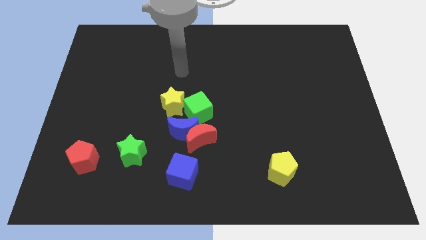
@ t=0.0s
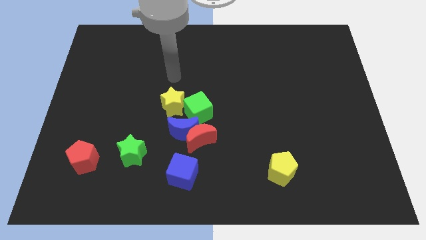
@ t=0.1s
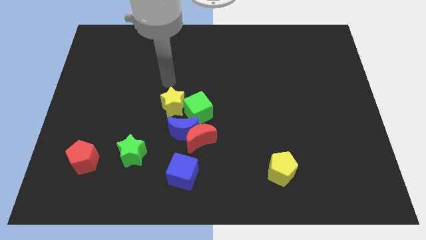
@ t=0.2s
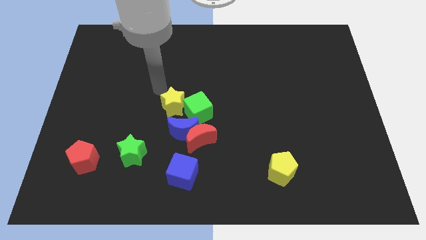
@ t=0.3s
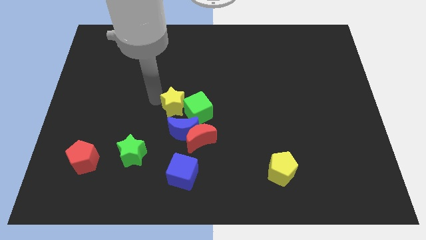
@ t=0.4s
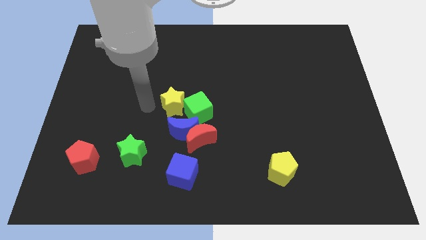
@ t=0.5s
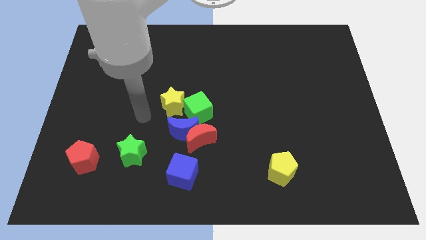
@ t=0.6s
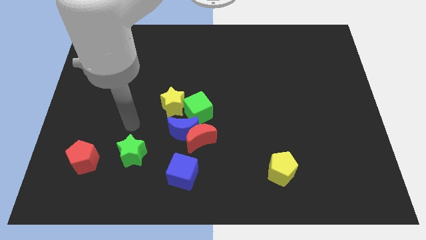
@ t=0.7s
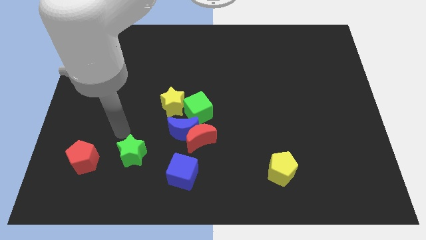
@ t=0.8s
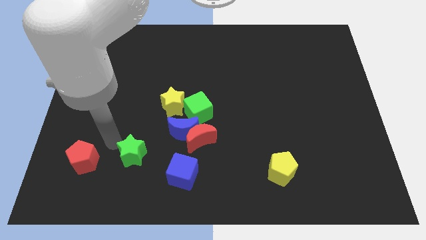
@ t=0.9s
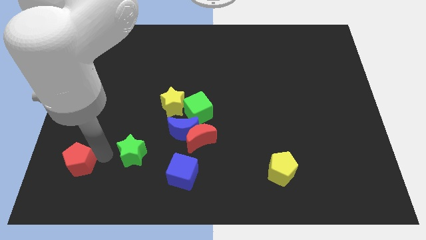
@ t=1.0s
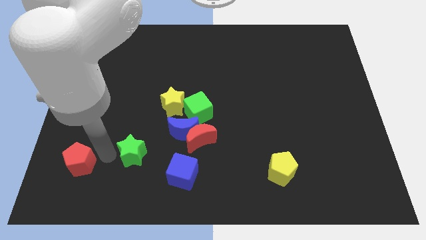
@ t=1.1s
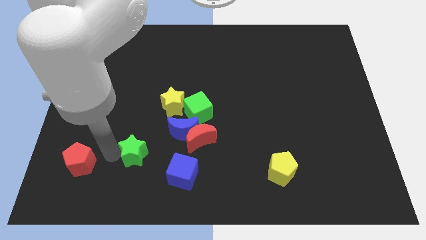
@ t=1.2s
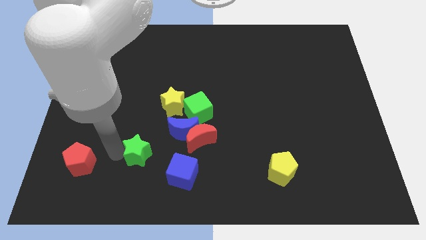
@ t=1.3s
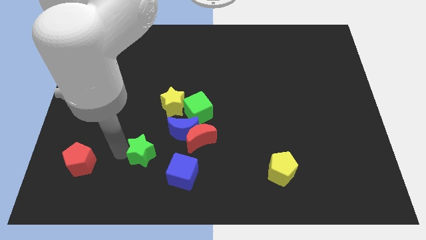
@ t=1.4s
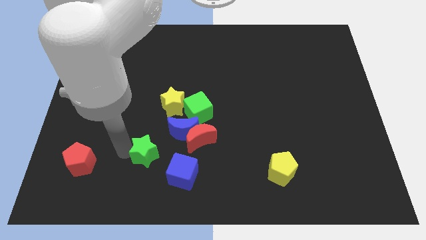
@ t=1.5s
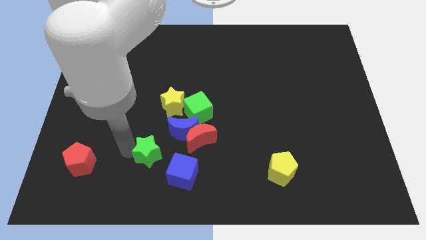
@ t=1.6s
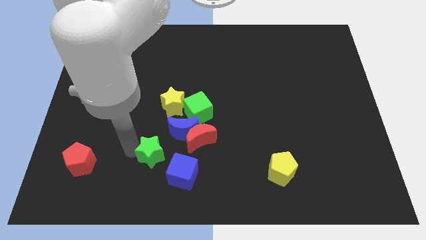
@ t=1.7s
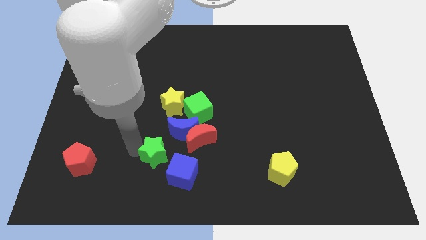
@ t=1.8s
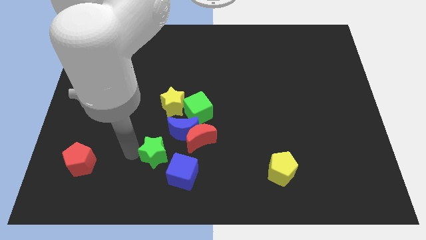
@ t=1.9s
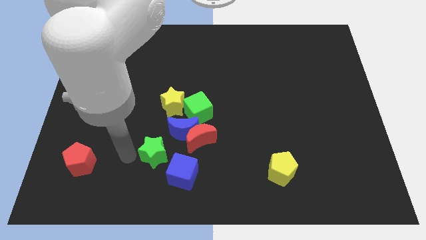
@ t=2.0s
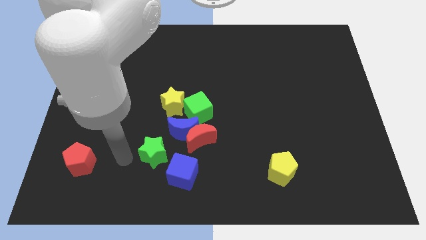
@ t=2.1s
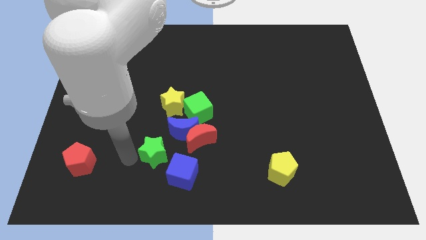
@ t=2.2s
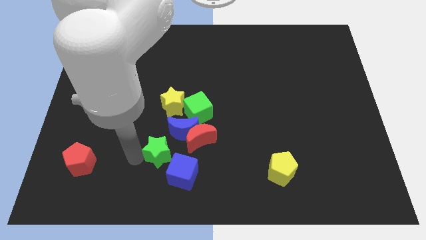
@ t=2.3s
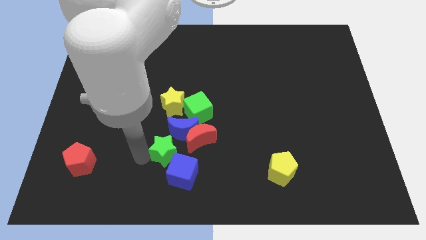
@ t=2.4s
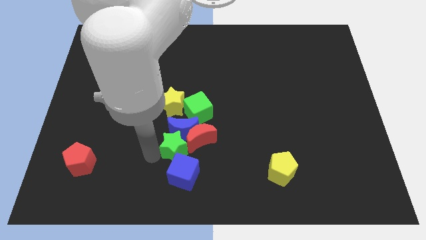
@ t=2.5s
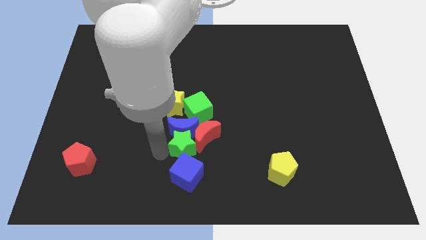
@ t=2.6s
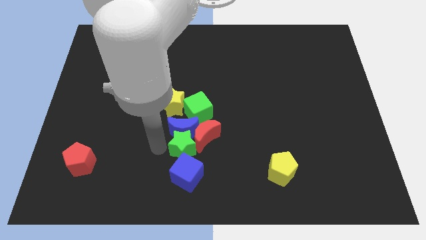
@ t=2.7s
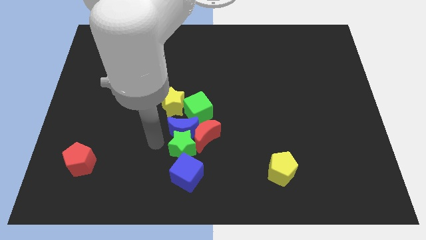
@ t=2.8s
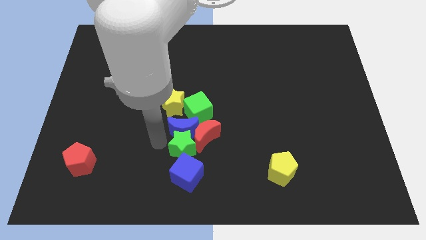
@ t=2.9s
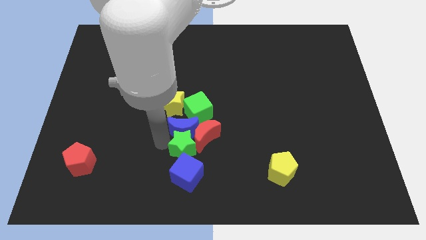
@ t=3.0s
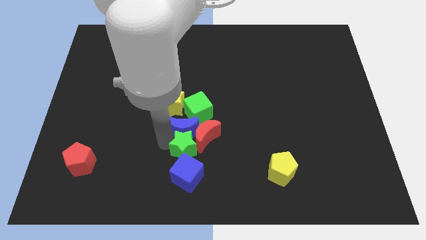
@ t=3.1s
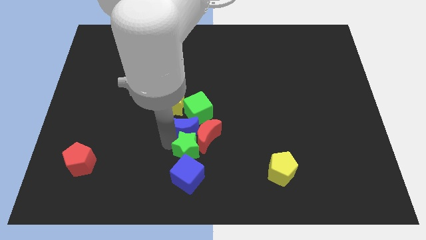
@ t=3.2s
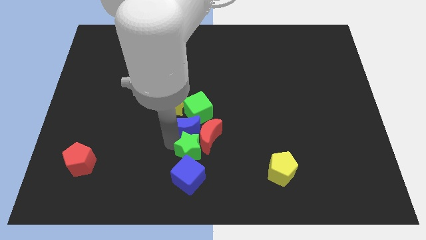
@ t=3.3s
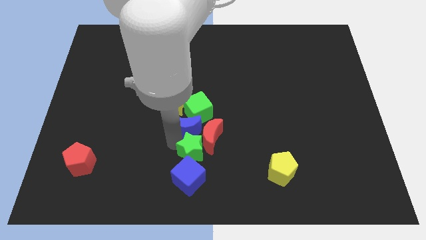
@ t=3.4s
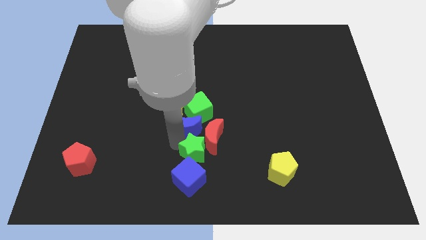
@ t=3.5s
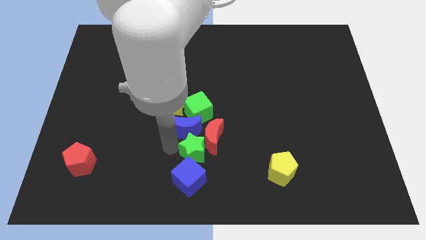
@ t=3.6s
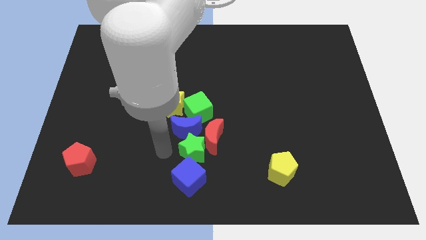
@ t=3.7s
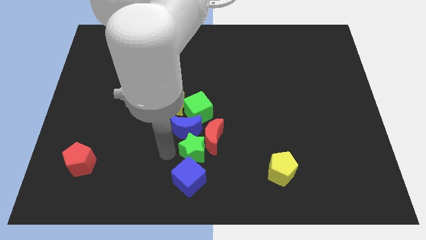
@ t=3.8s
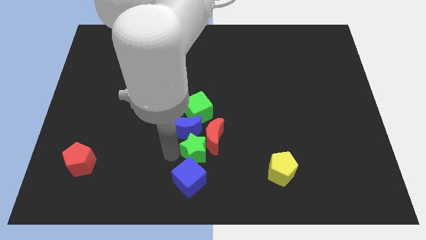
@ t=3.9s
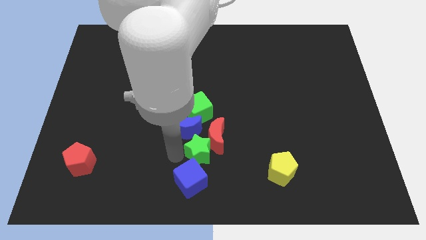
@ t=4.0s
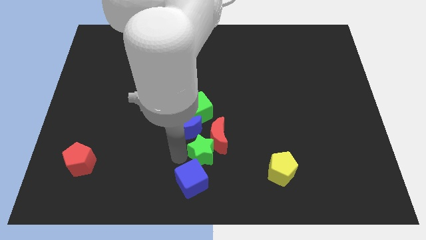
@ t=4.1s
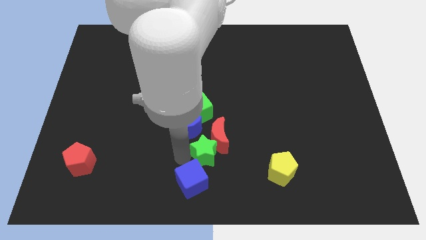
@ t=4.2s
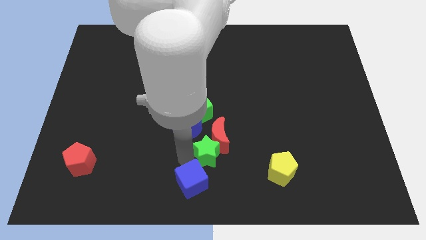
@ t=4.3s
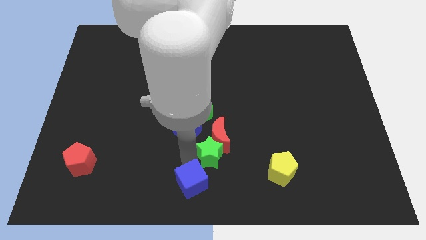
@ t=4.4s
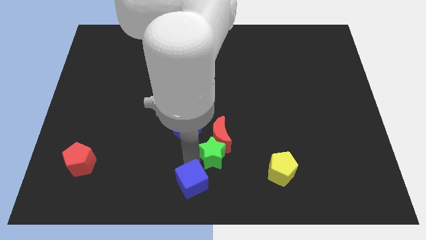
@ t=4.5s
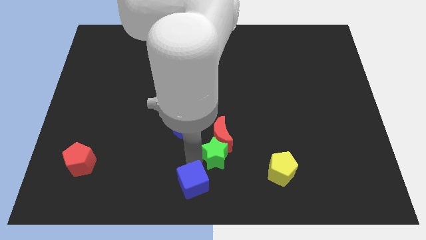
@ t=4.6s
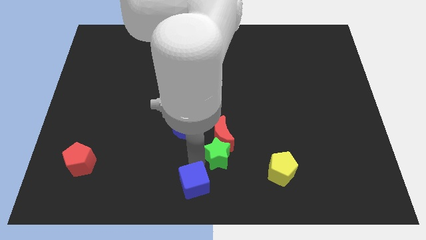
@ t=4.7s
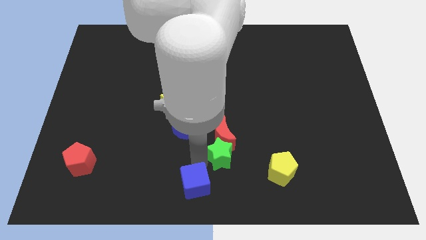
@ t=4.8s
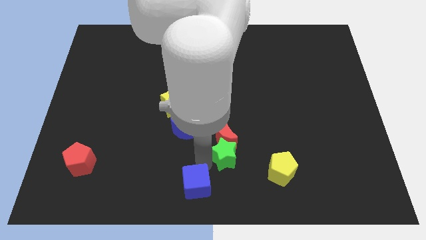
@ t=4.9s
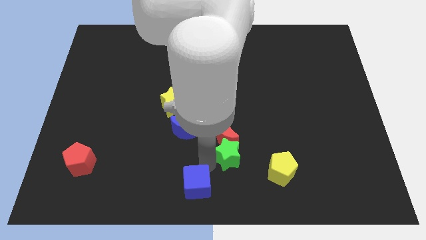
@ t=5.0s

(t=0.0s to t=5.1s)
move the green star to the right

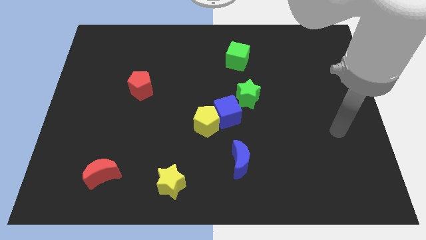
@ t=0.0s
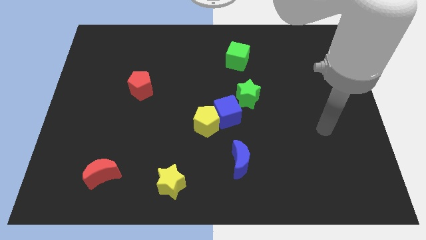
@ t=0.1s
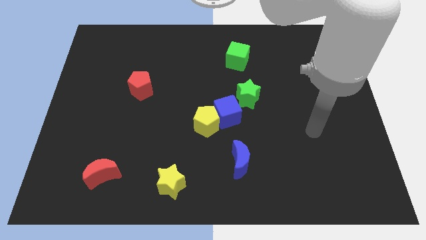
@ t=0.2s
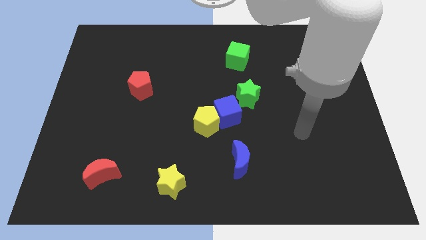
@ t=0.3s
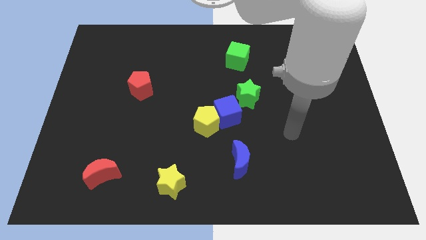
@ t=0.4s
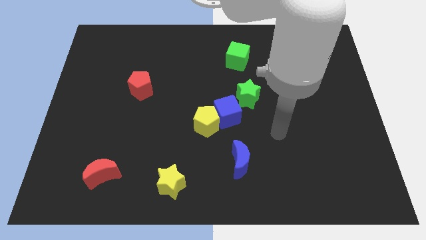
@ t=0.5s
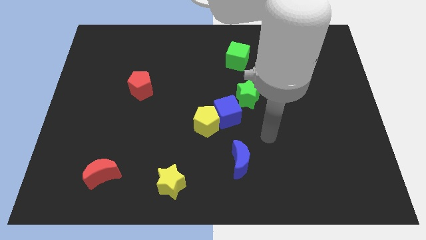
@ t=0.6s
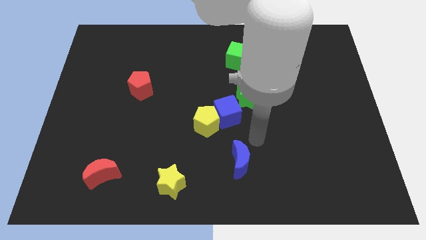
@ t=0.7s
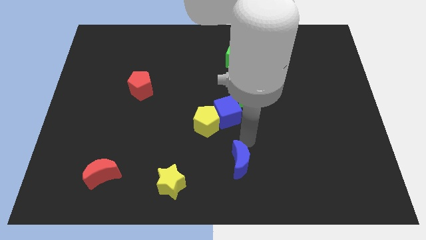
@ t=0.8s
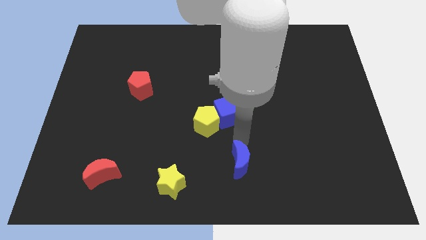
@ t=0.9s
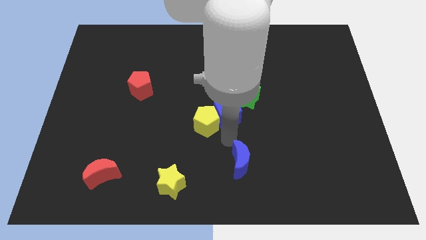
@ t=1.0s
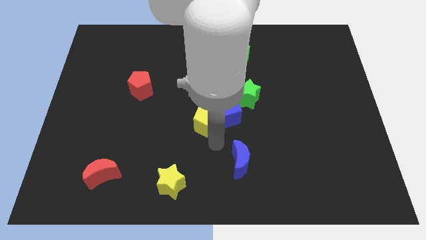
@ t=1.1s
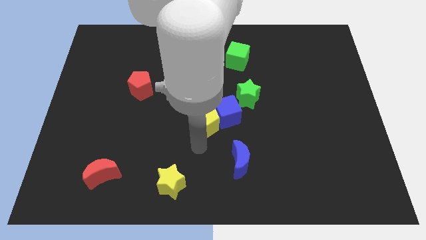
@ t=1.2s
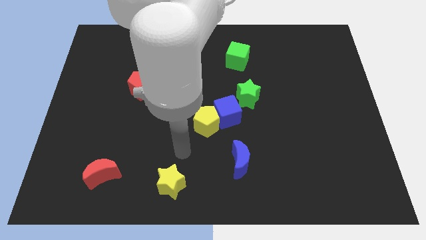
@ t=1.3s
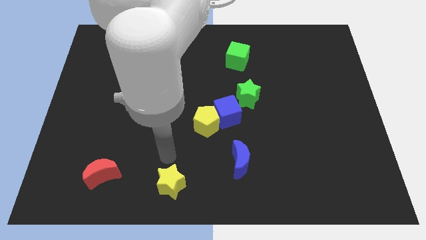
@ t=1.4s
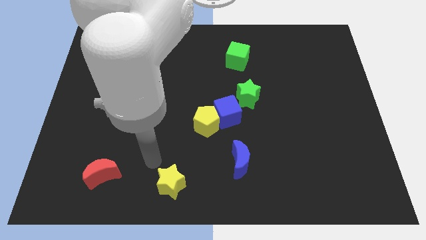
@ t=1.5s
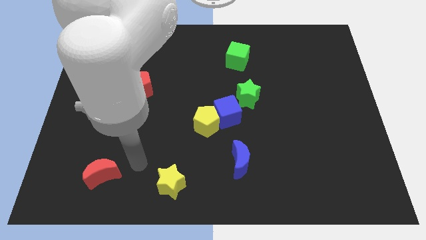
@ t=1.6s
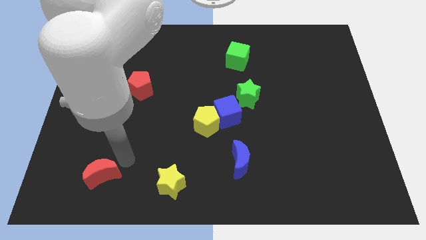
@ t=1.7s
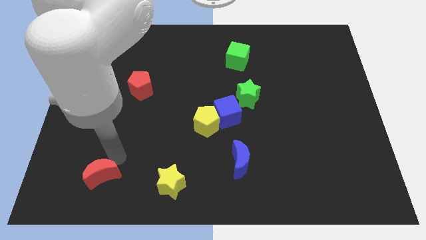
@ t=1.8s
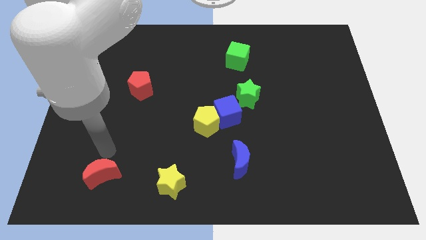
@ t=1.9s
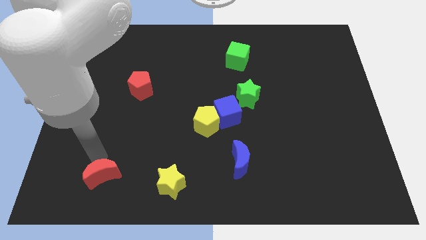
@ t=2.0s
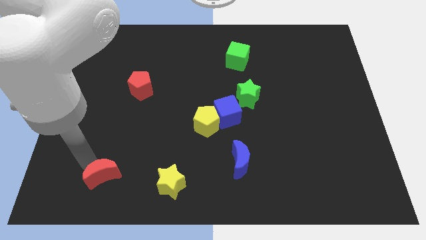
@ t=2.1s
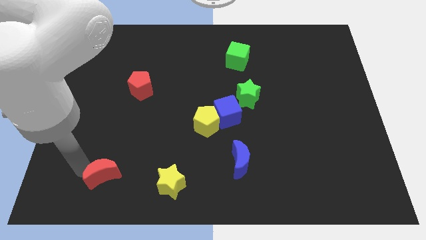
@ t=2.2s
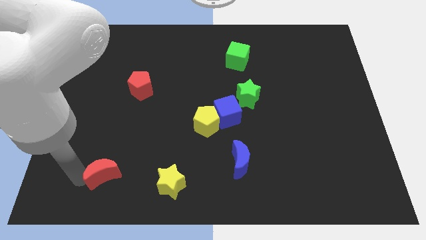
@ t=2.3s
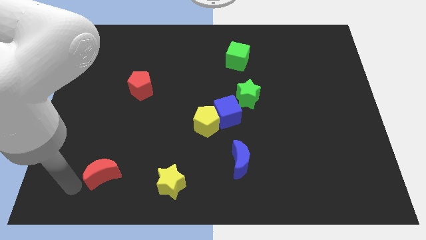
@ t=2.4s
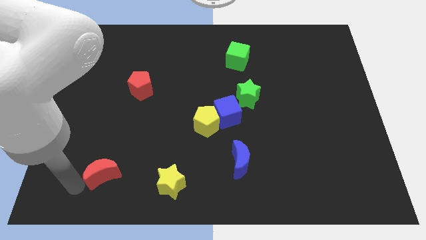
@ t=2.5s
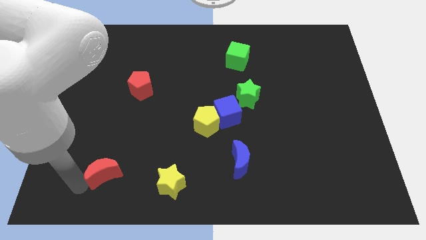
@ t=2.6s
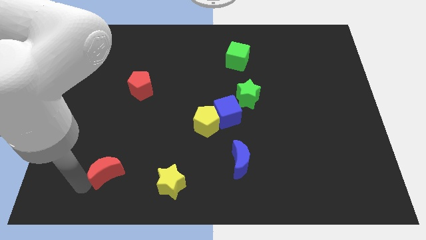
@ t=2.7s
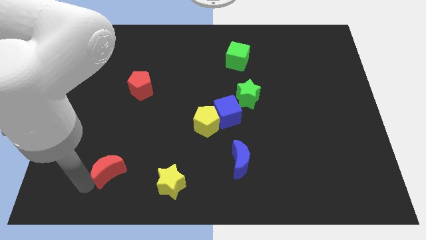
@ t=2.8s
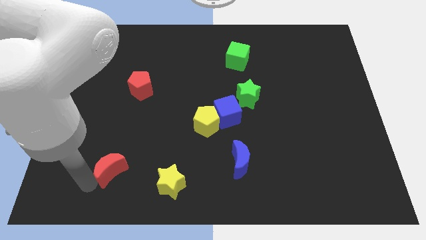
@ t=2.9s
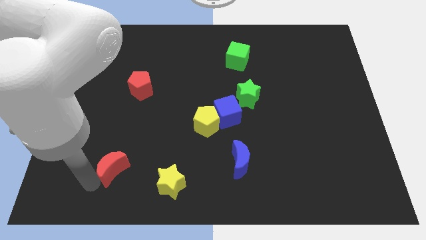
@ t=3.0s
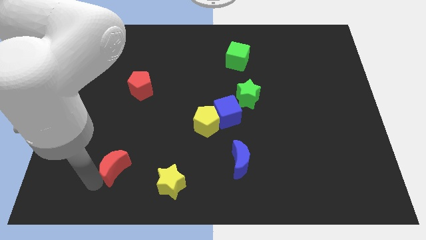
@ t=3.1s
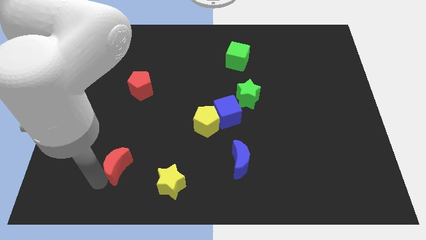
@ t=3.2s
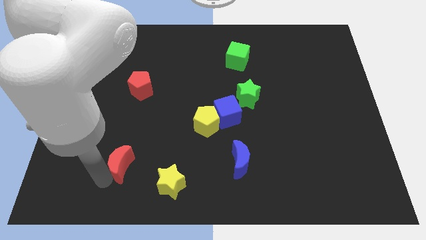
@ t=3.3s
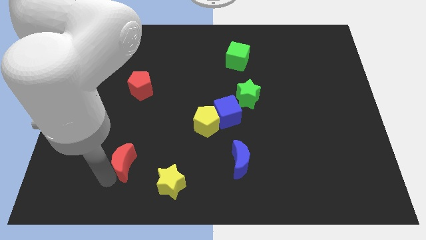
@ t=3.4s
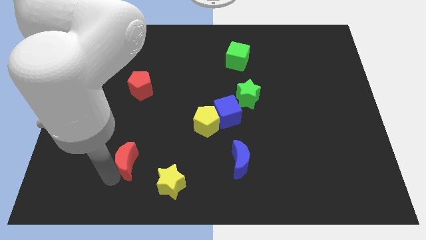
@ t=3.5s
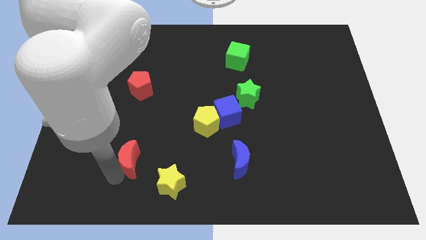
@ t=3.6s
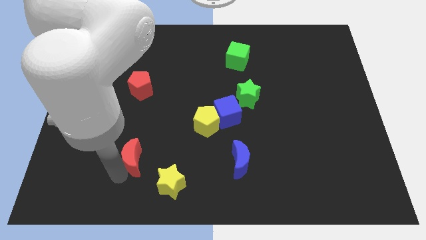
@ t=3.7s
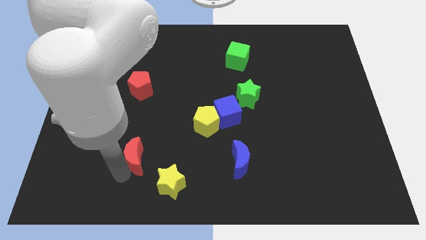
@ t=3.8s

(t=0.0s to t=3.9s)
move the red moon upwards and to the right slightly
